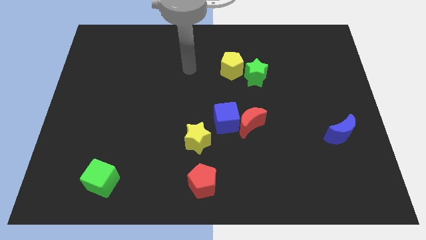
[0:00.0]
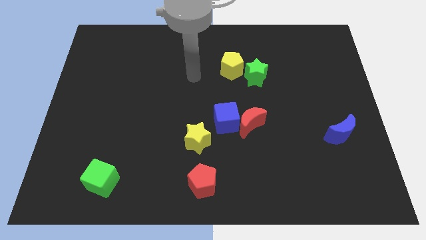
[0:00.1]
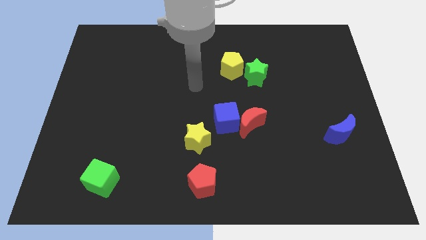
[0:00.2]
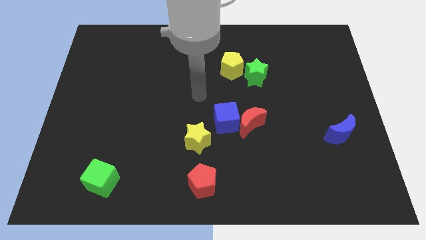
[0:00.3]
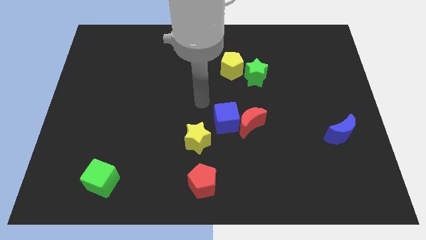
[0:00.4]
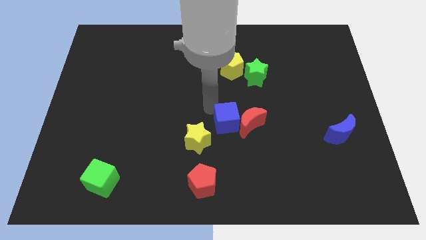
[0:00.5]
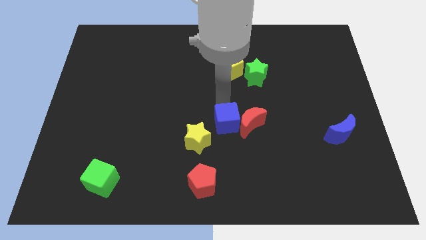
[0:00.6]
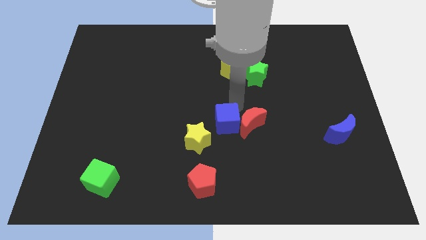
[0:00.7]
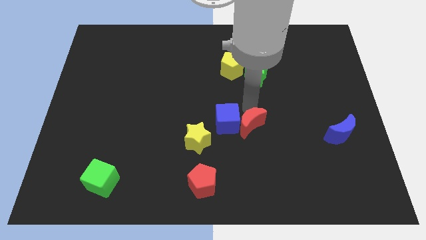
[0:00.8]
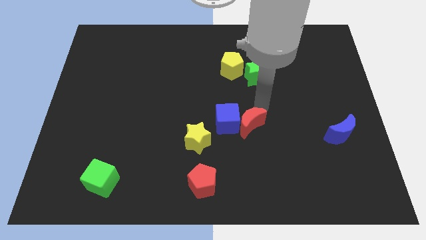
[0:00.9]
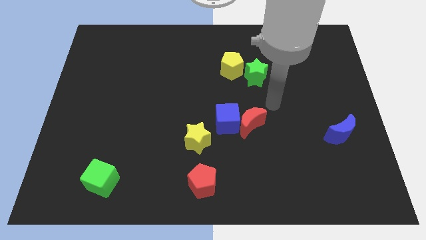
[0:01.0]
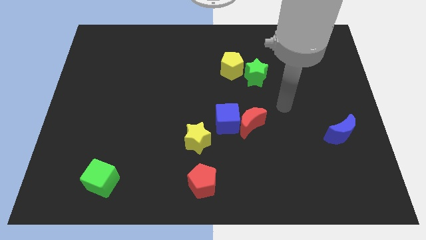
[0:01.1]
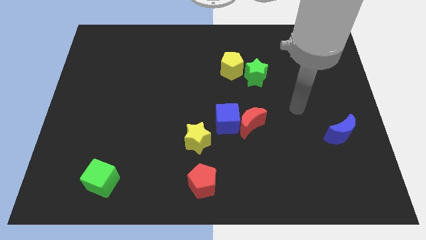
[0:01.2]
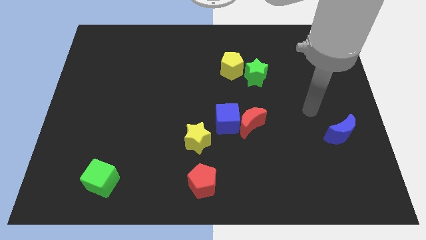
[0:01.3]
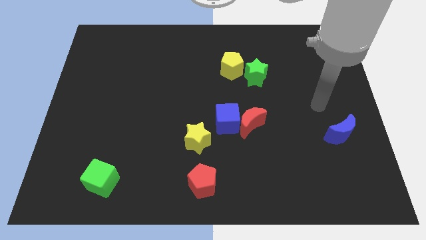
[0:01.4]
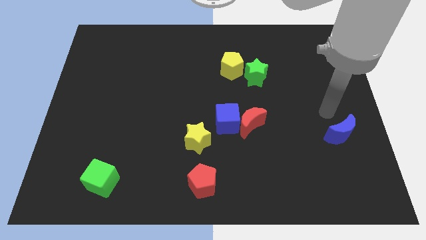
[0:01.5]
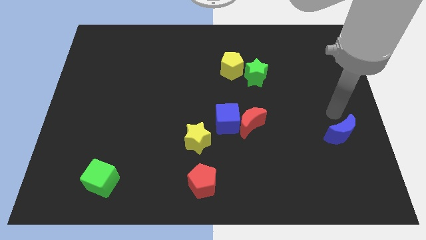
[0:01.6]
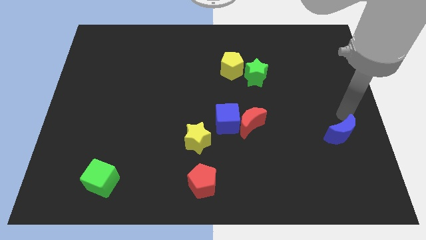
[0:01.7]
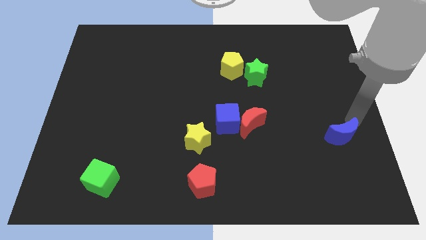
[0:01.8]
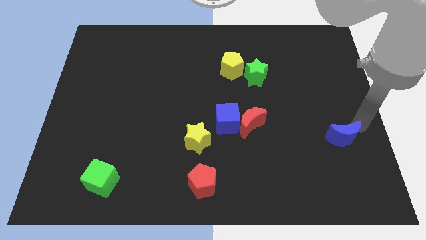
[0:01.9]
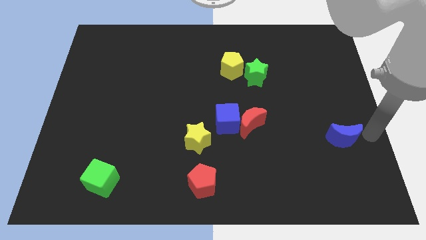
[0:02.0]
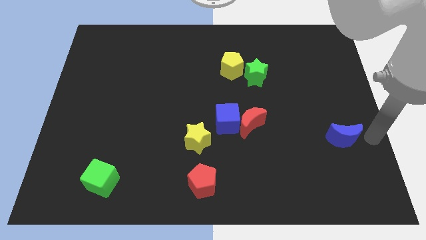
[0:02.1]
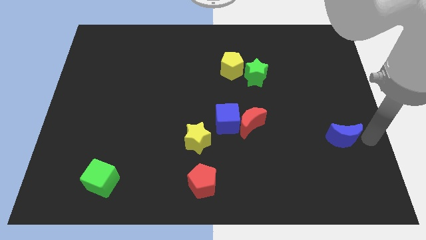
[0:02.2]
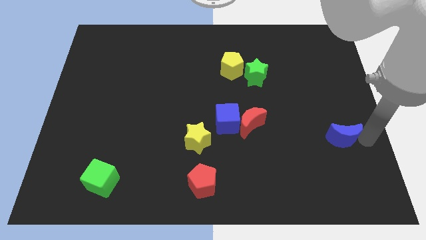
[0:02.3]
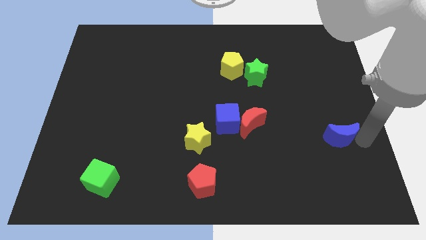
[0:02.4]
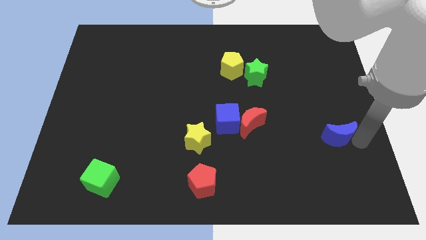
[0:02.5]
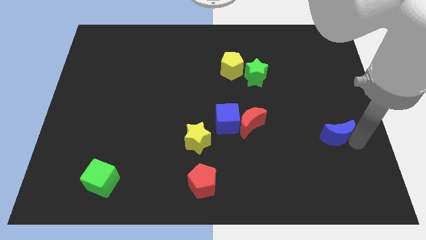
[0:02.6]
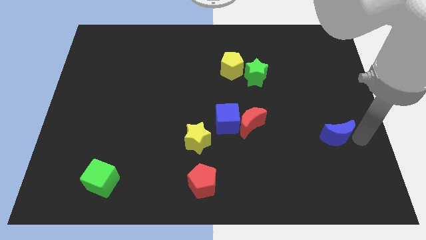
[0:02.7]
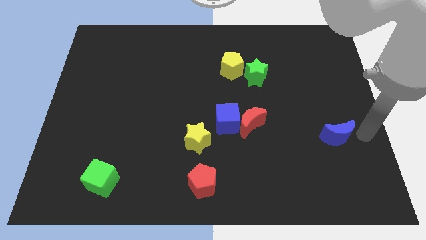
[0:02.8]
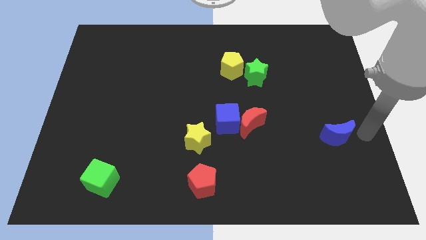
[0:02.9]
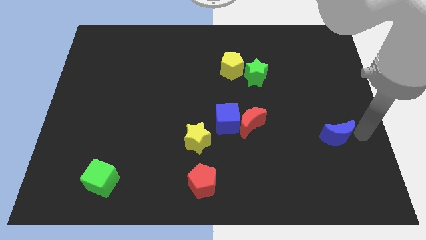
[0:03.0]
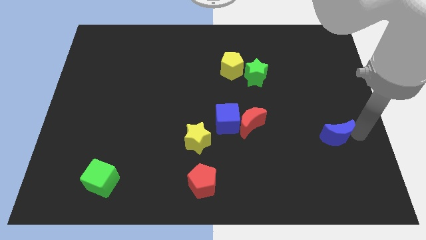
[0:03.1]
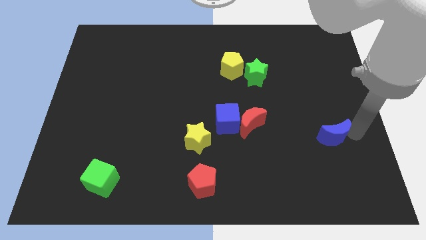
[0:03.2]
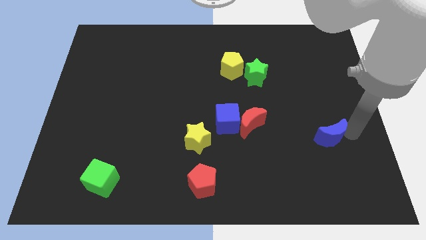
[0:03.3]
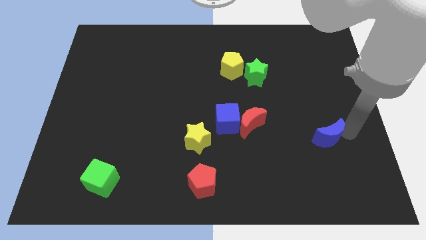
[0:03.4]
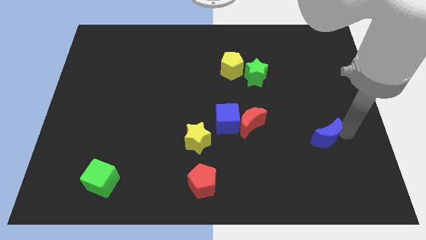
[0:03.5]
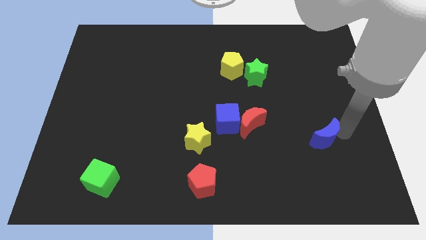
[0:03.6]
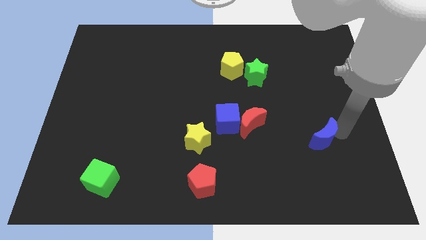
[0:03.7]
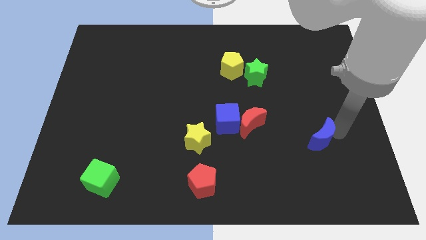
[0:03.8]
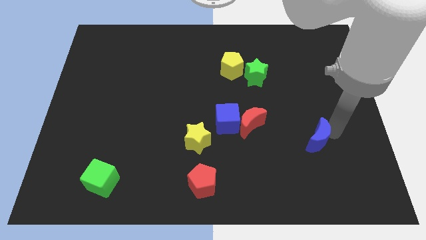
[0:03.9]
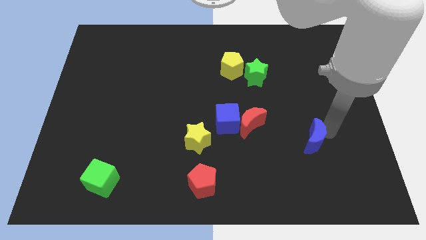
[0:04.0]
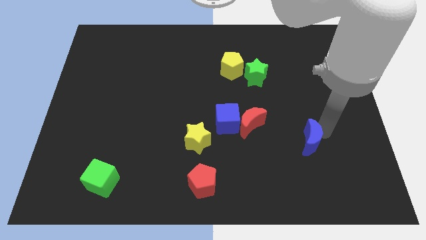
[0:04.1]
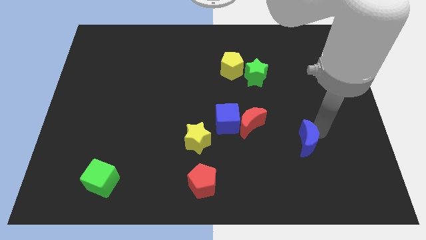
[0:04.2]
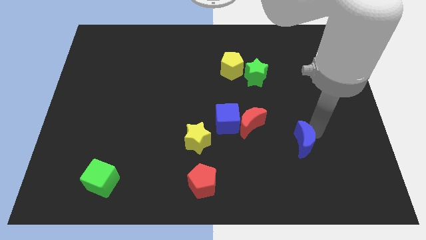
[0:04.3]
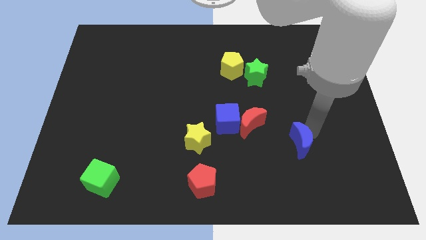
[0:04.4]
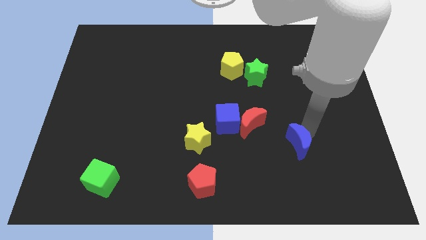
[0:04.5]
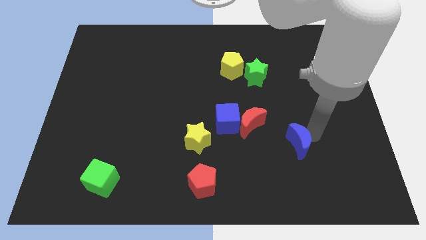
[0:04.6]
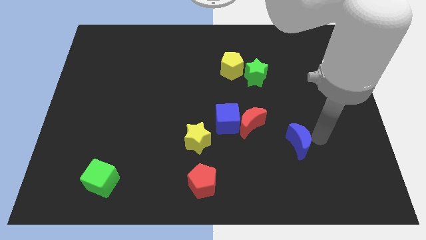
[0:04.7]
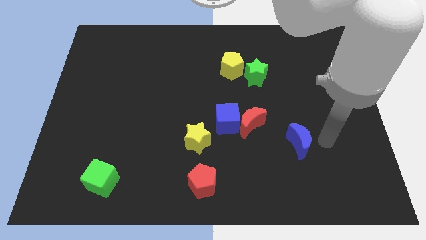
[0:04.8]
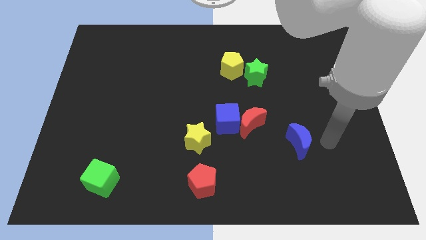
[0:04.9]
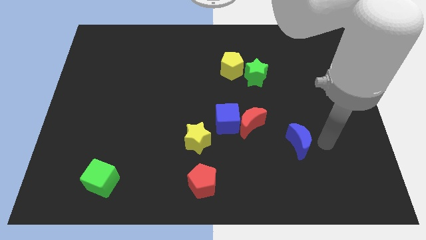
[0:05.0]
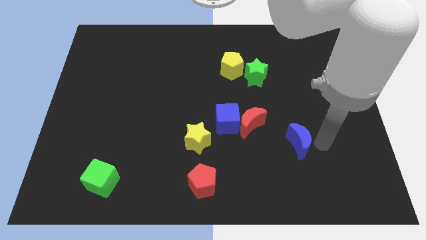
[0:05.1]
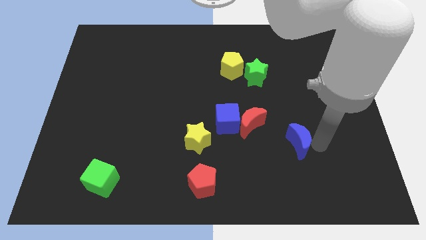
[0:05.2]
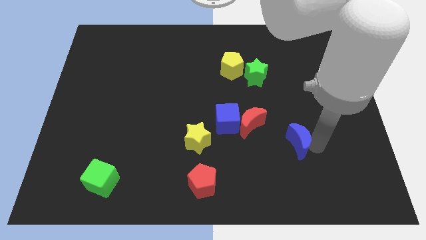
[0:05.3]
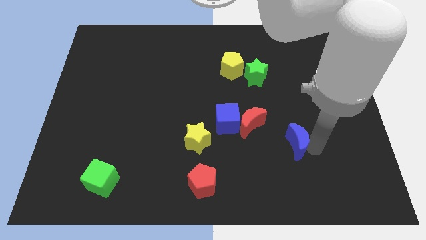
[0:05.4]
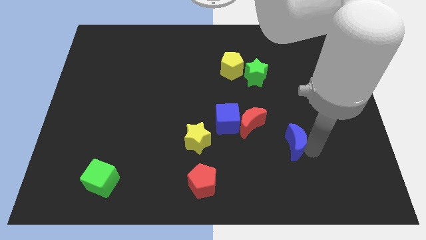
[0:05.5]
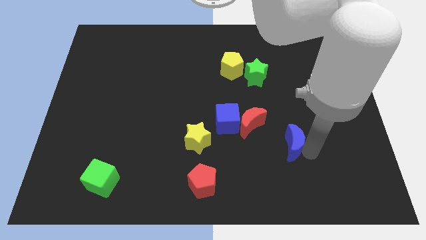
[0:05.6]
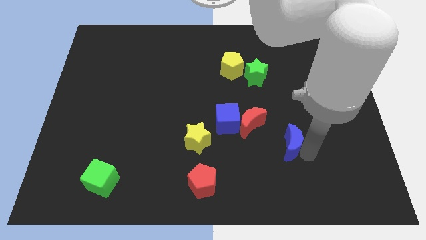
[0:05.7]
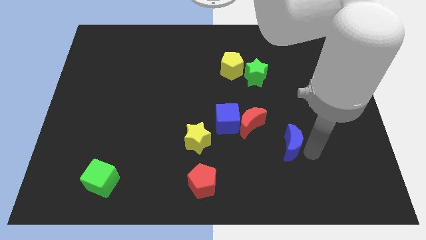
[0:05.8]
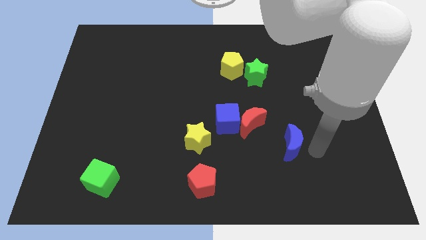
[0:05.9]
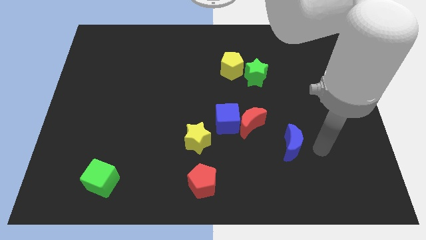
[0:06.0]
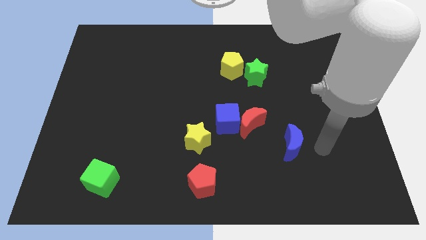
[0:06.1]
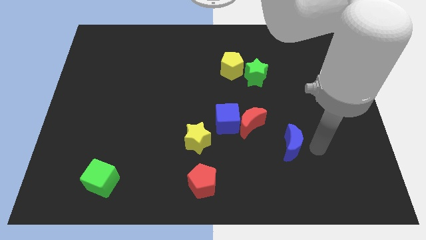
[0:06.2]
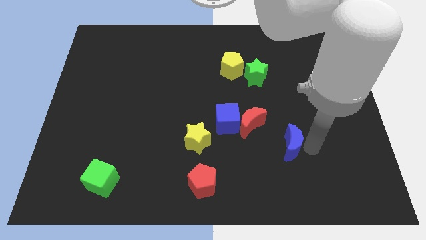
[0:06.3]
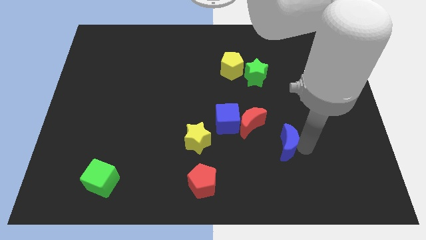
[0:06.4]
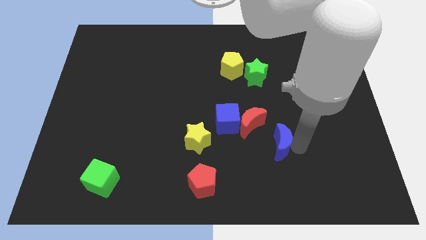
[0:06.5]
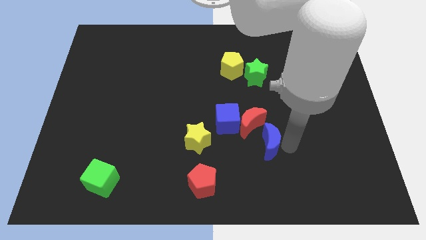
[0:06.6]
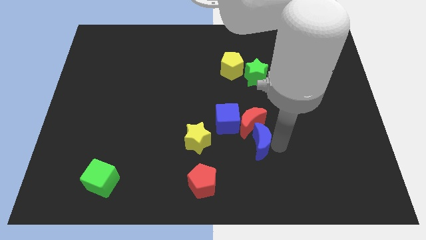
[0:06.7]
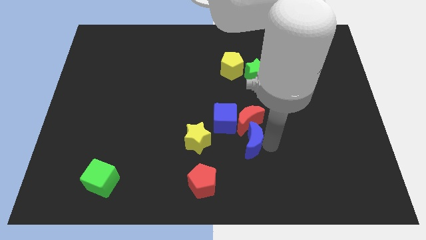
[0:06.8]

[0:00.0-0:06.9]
move the blue moon to the bottom left of the red moon

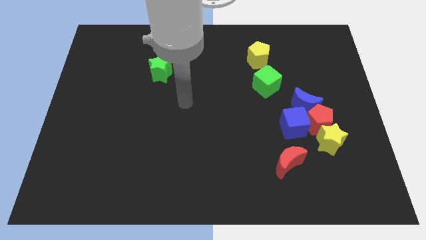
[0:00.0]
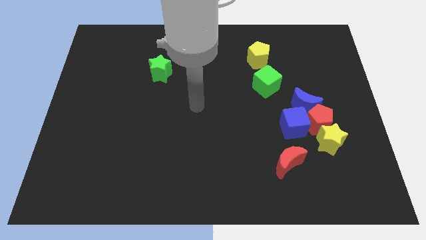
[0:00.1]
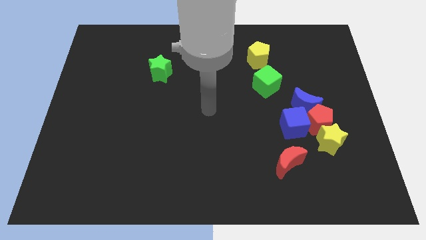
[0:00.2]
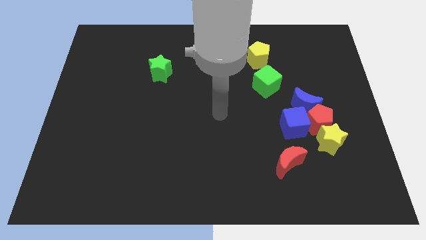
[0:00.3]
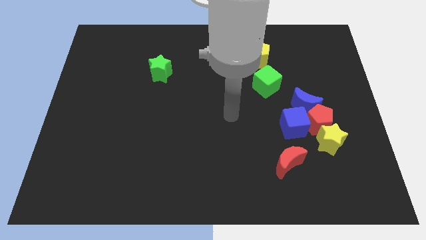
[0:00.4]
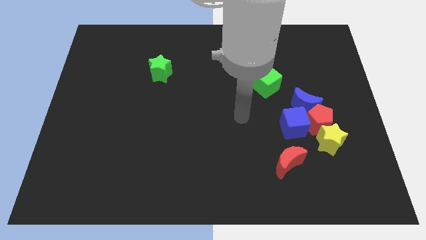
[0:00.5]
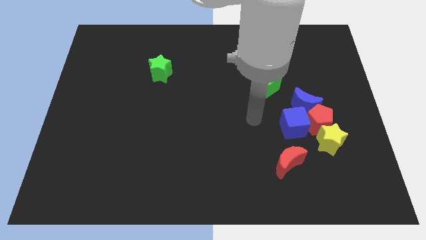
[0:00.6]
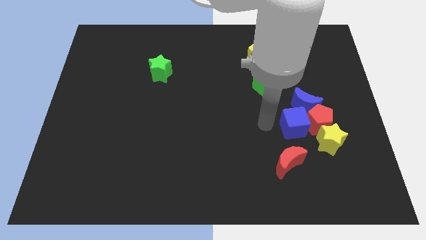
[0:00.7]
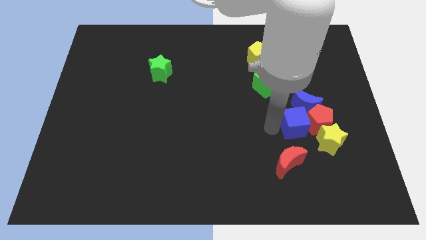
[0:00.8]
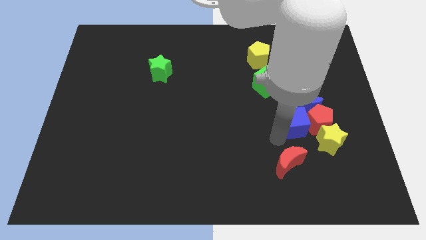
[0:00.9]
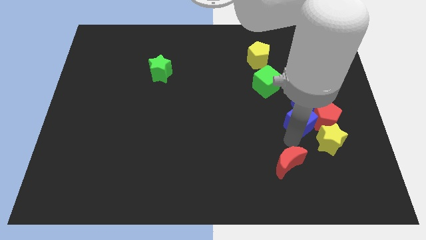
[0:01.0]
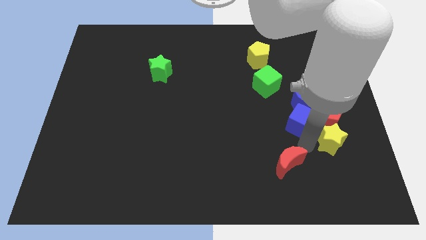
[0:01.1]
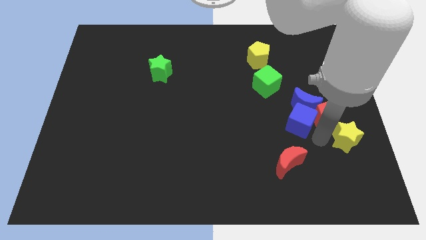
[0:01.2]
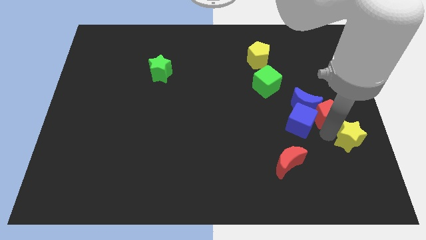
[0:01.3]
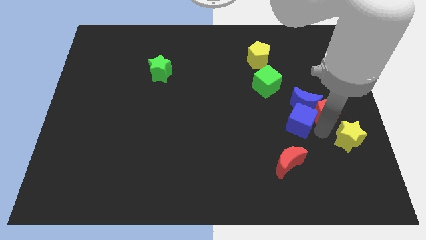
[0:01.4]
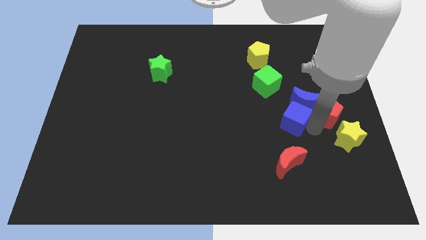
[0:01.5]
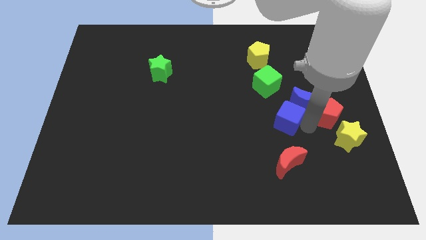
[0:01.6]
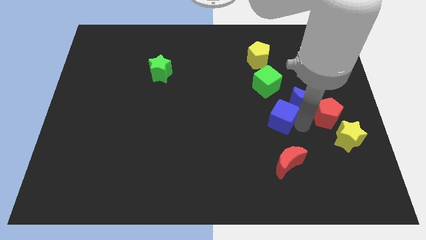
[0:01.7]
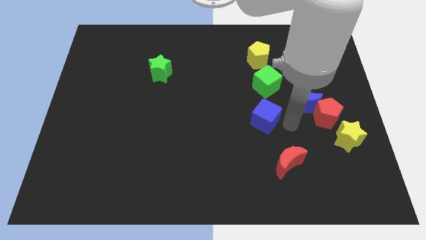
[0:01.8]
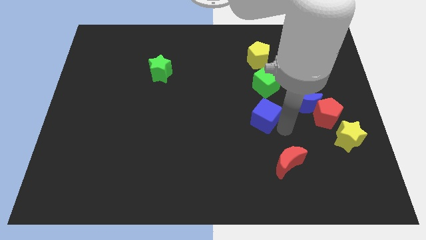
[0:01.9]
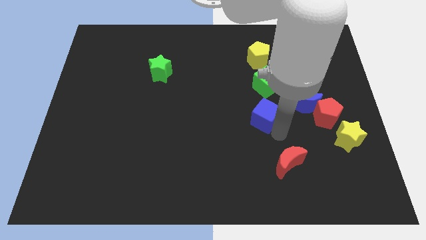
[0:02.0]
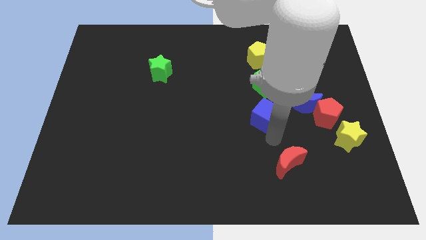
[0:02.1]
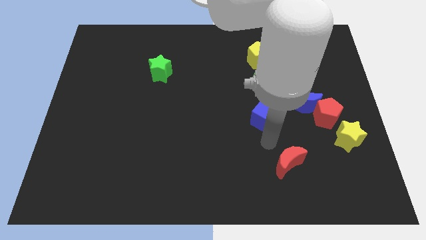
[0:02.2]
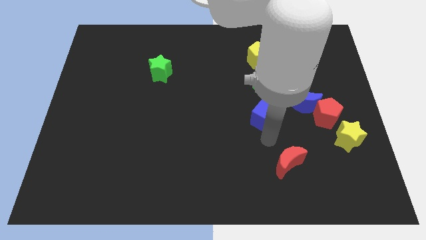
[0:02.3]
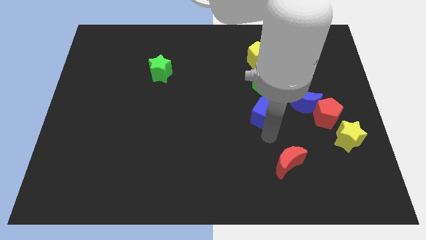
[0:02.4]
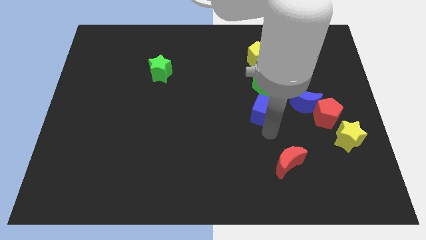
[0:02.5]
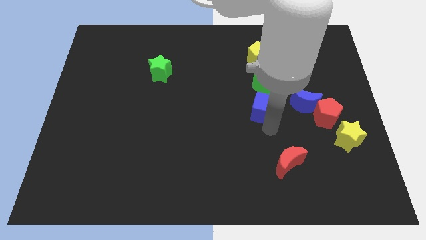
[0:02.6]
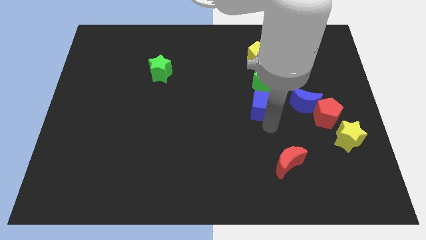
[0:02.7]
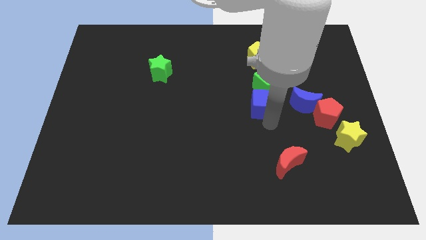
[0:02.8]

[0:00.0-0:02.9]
push the blue cube to the bottom side of the yellow pentagon
